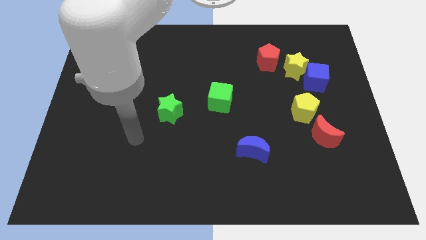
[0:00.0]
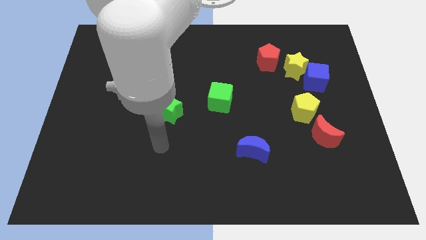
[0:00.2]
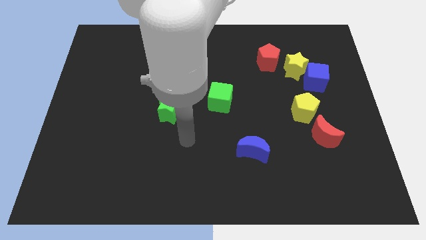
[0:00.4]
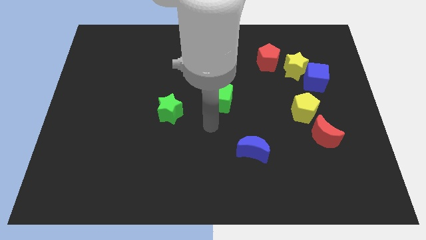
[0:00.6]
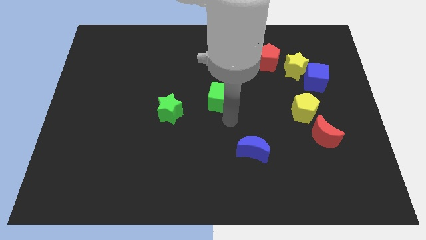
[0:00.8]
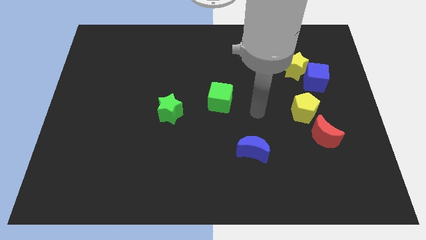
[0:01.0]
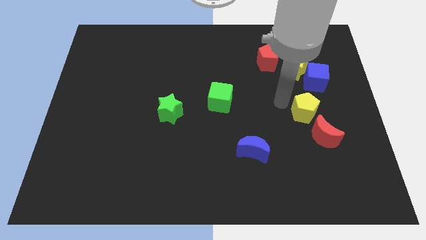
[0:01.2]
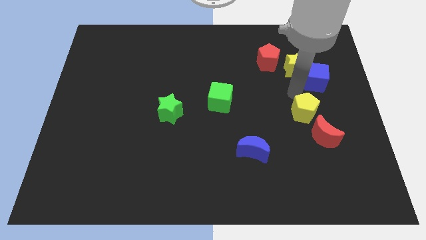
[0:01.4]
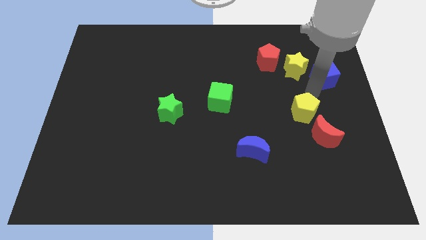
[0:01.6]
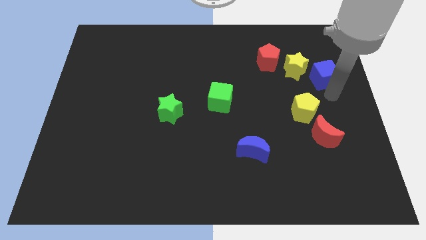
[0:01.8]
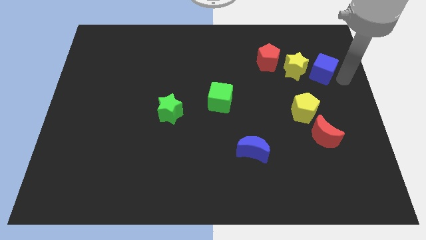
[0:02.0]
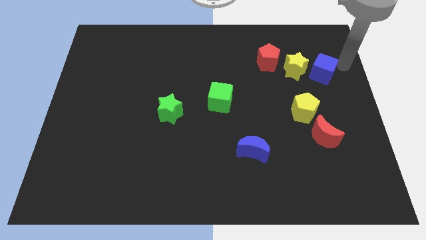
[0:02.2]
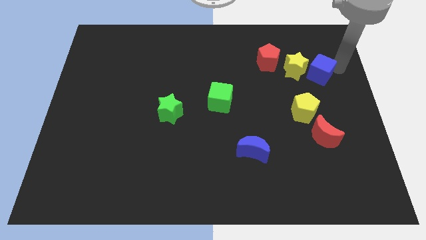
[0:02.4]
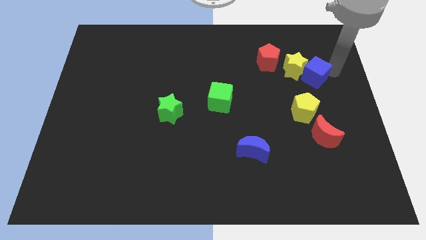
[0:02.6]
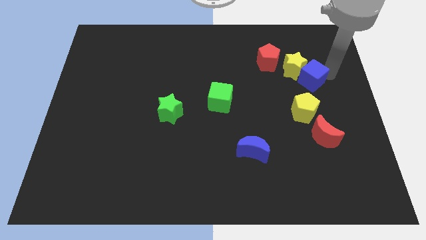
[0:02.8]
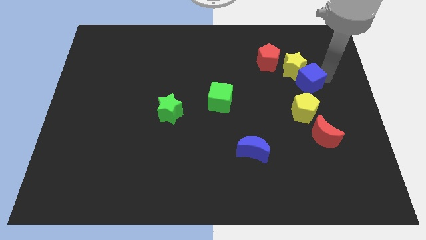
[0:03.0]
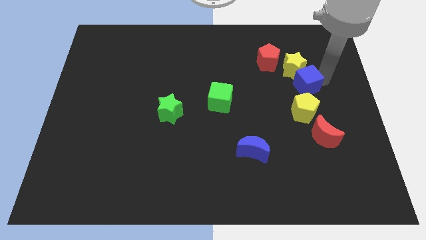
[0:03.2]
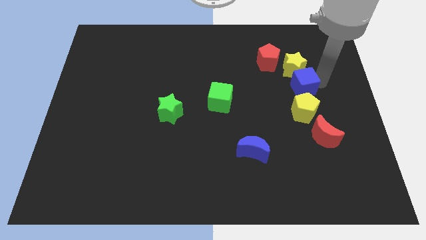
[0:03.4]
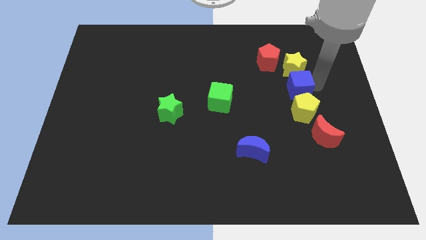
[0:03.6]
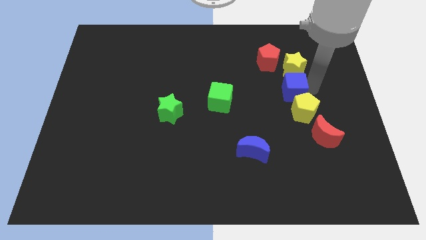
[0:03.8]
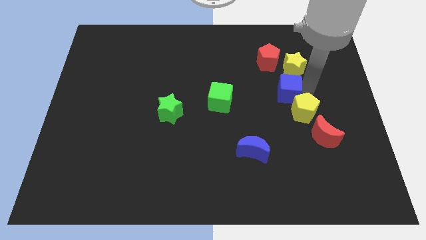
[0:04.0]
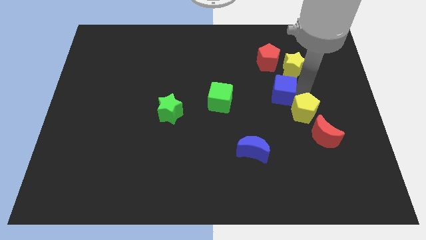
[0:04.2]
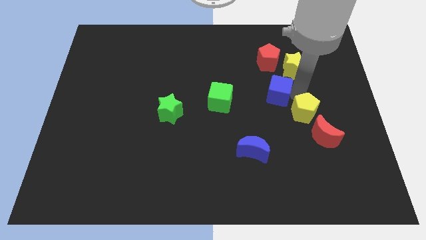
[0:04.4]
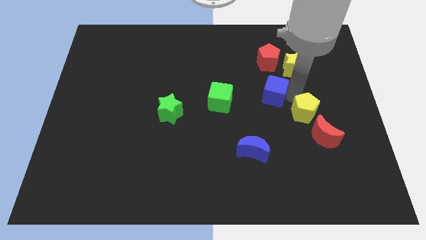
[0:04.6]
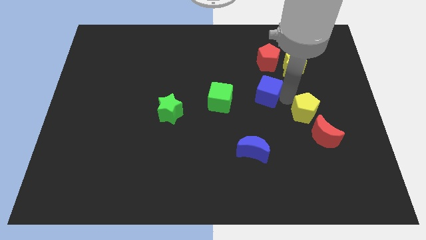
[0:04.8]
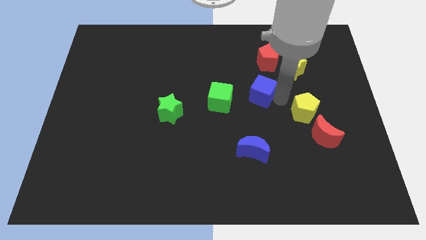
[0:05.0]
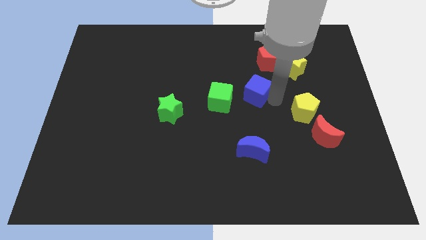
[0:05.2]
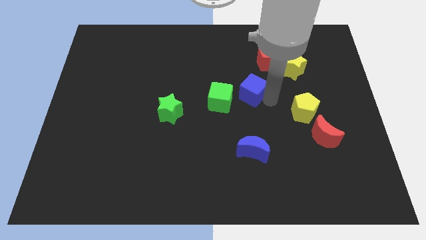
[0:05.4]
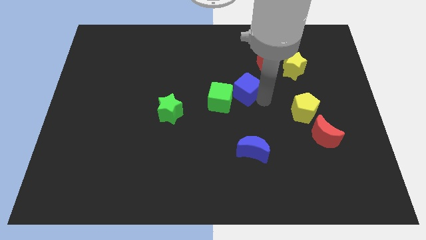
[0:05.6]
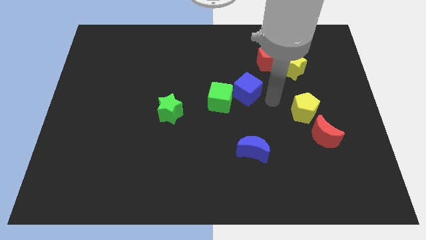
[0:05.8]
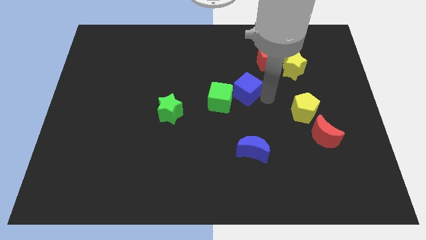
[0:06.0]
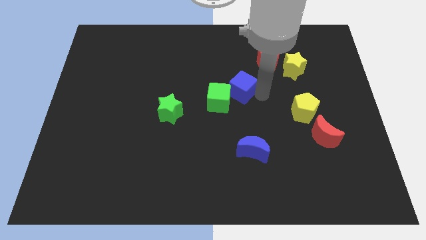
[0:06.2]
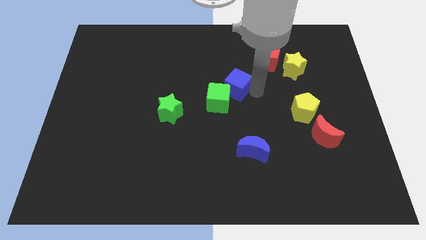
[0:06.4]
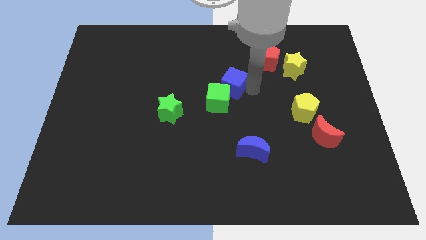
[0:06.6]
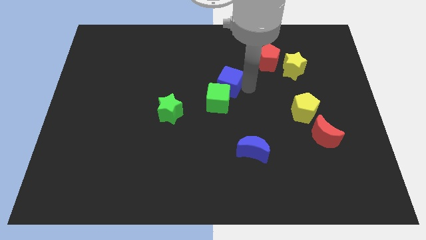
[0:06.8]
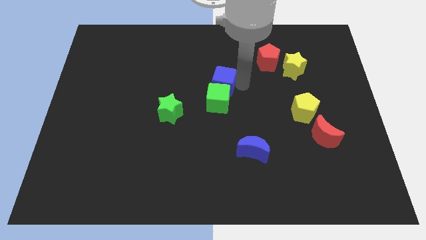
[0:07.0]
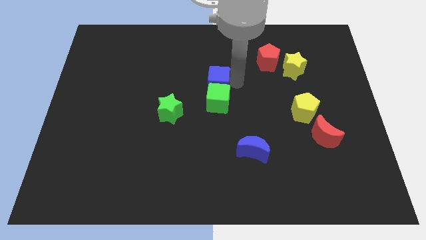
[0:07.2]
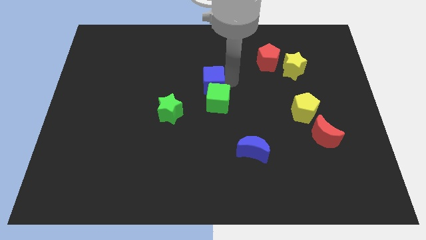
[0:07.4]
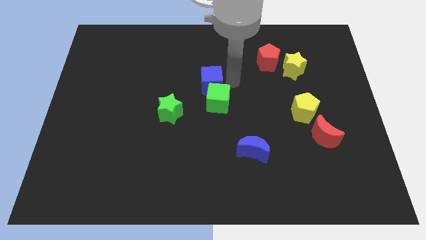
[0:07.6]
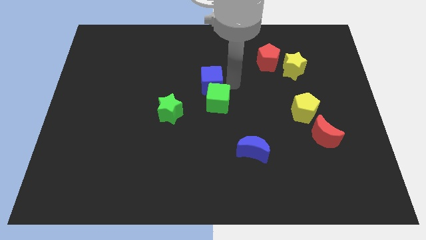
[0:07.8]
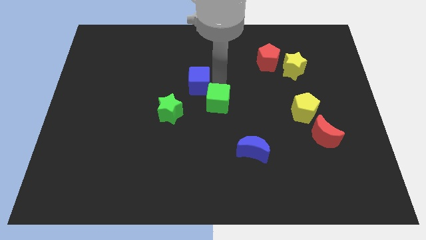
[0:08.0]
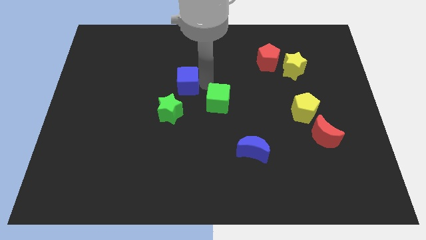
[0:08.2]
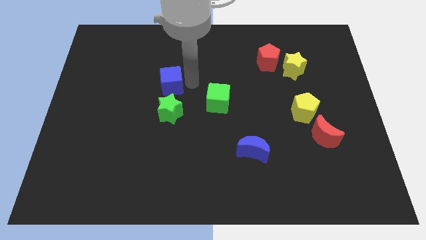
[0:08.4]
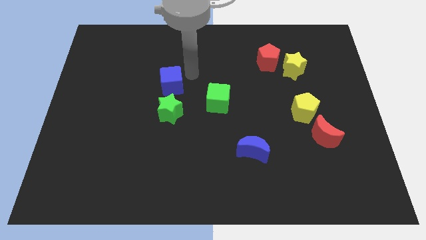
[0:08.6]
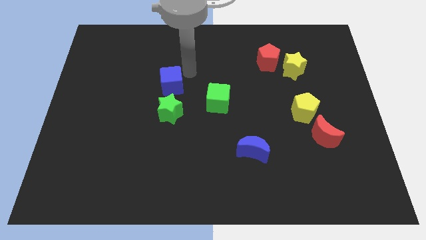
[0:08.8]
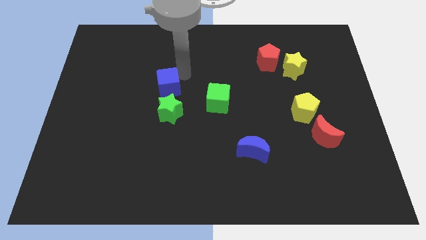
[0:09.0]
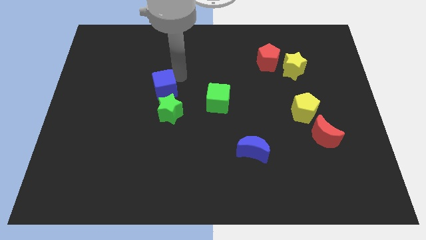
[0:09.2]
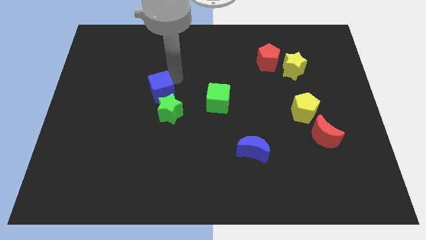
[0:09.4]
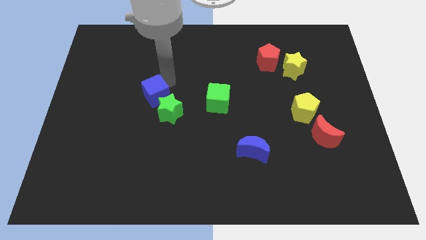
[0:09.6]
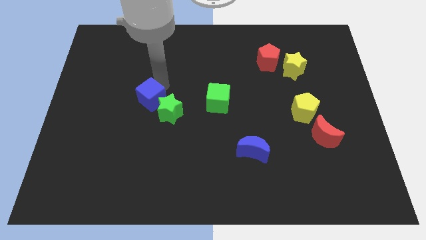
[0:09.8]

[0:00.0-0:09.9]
push the blue cube just left of the green star

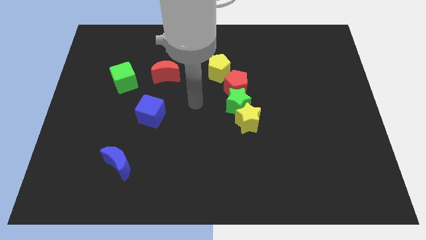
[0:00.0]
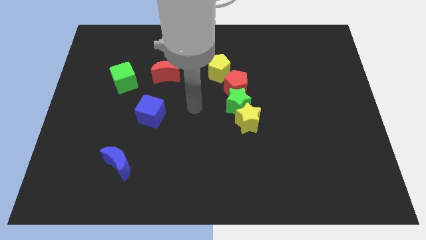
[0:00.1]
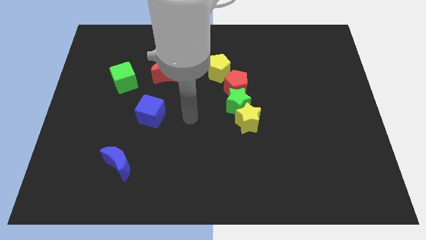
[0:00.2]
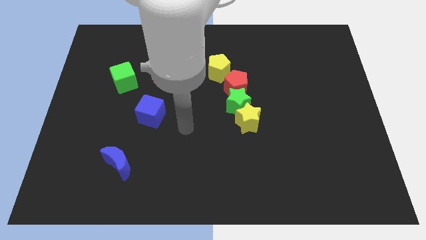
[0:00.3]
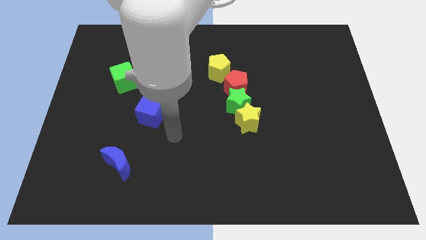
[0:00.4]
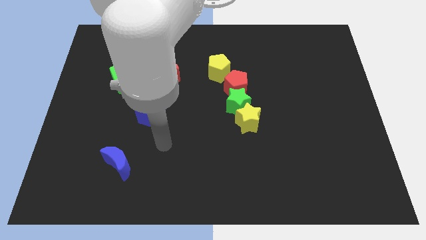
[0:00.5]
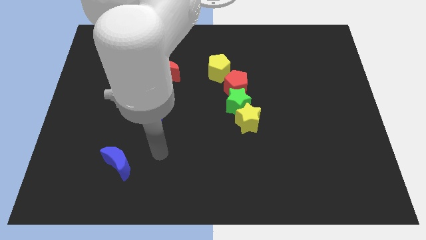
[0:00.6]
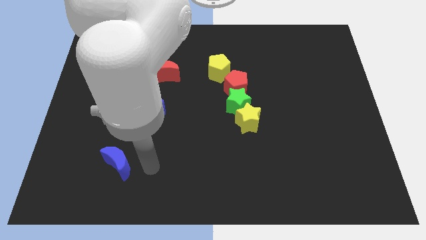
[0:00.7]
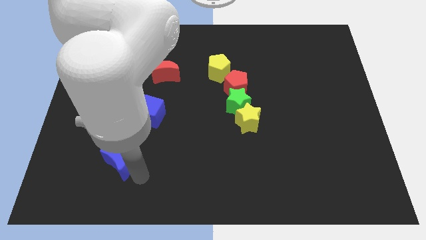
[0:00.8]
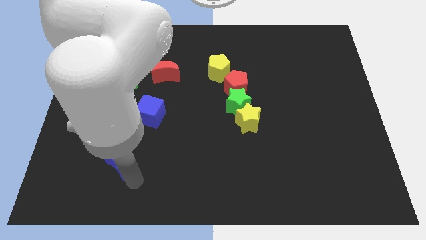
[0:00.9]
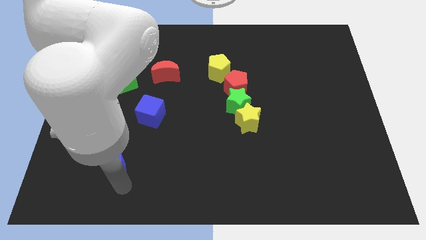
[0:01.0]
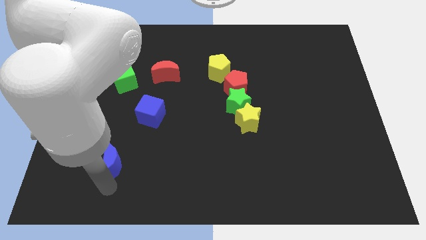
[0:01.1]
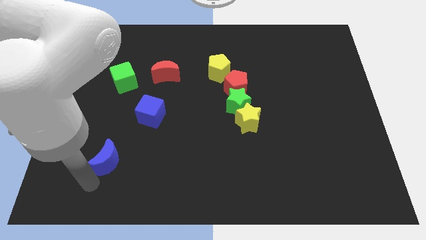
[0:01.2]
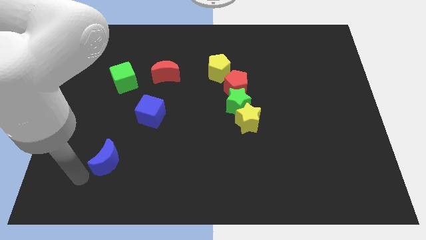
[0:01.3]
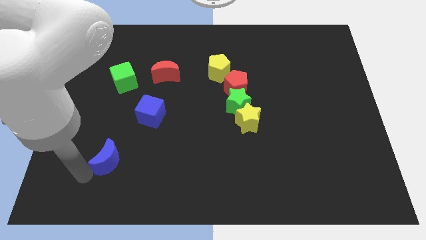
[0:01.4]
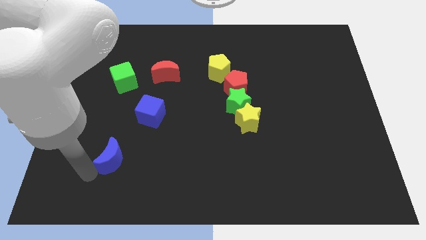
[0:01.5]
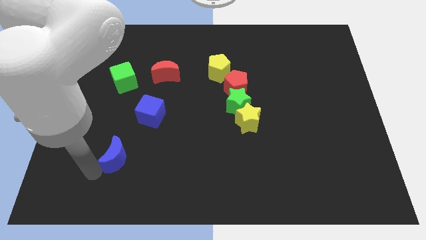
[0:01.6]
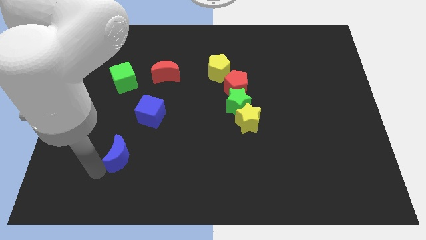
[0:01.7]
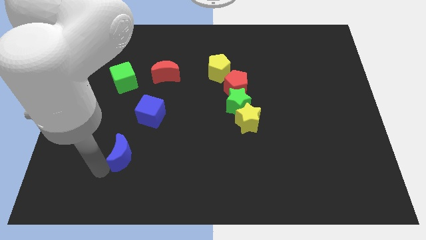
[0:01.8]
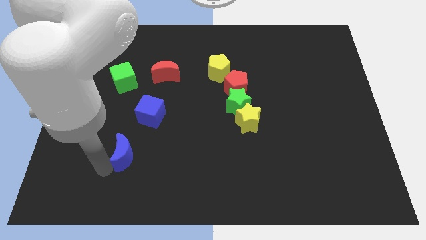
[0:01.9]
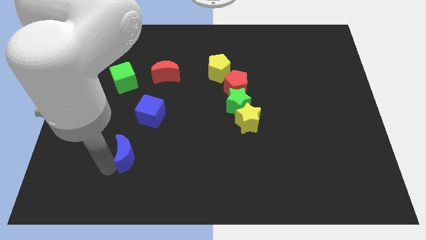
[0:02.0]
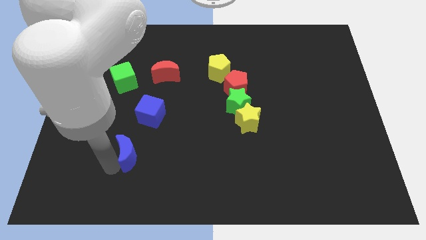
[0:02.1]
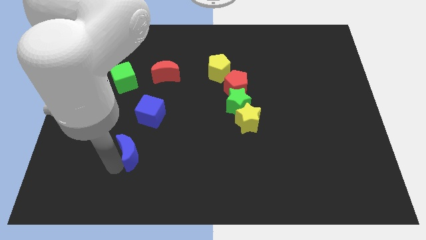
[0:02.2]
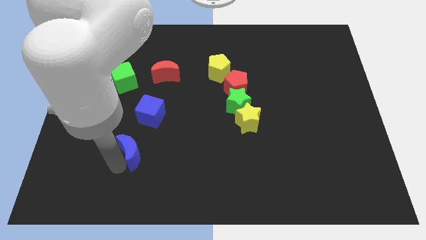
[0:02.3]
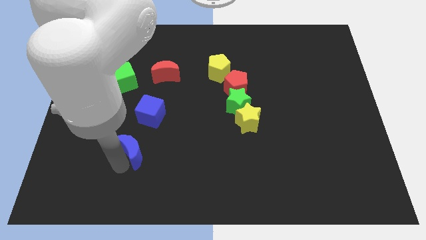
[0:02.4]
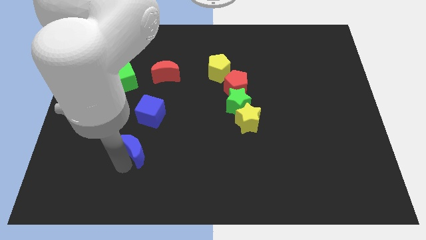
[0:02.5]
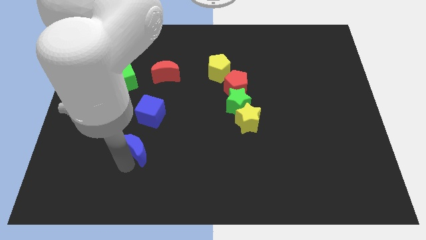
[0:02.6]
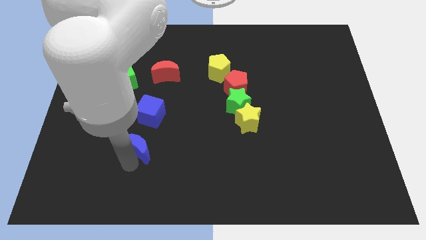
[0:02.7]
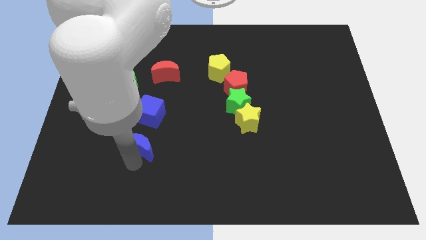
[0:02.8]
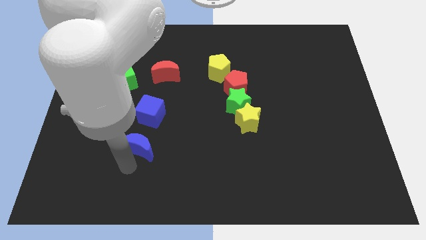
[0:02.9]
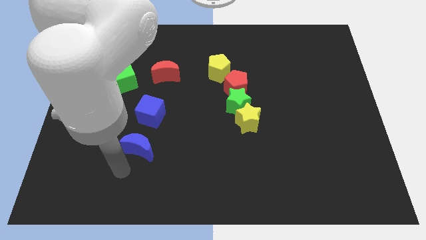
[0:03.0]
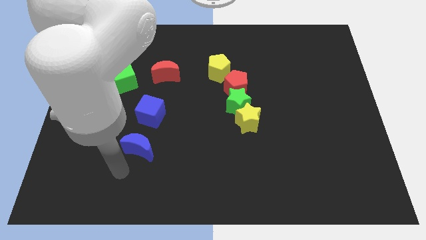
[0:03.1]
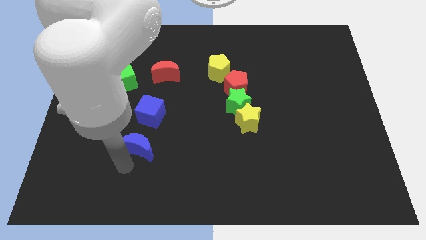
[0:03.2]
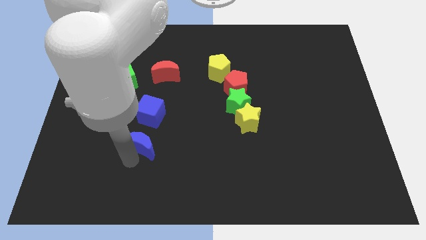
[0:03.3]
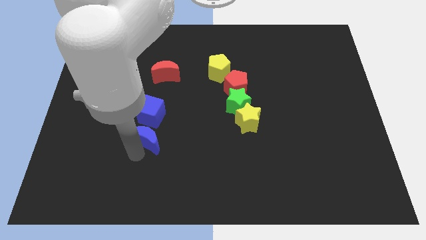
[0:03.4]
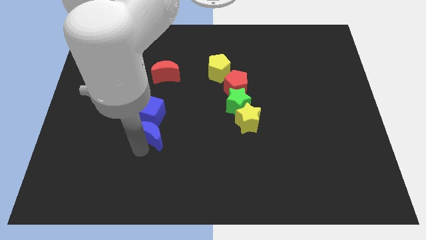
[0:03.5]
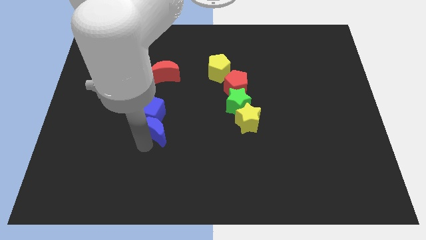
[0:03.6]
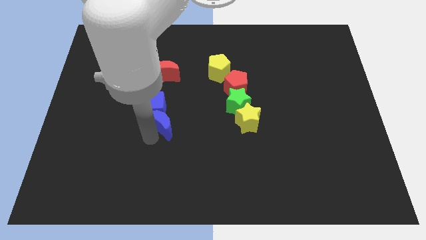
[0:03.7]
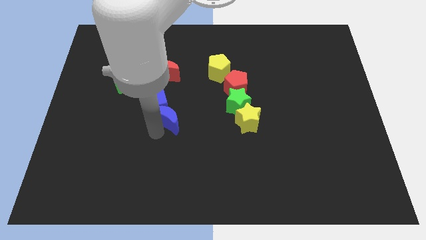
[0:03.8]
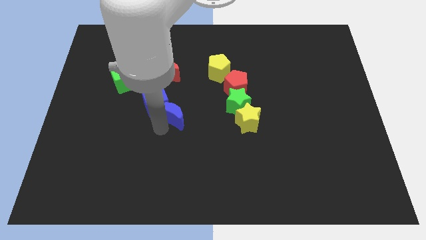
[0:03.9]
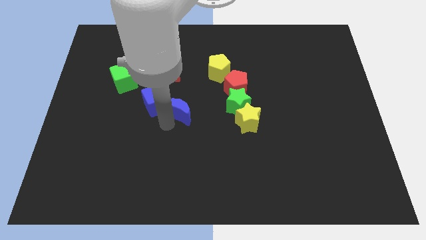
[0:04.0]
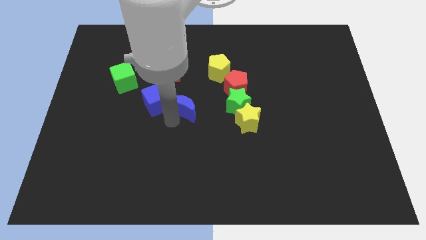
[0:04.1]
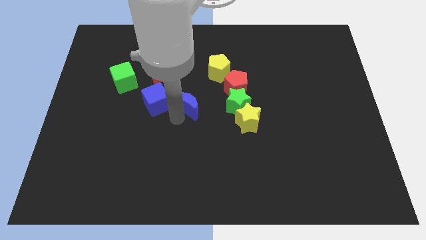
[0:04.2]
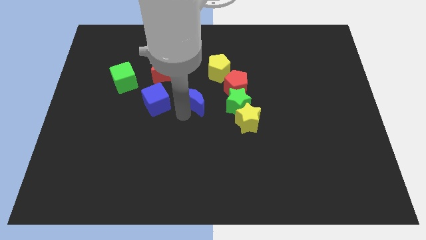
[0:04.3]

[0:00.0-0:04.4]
slide the blue moon to the left side of the red pentagon
